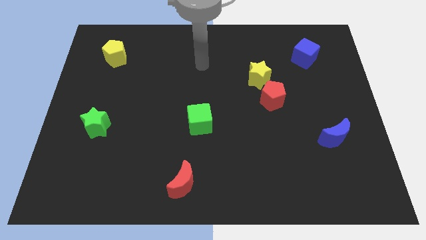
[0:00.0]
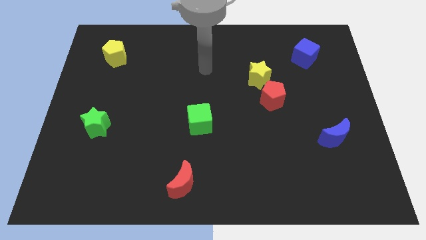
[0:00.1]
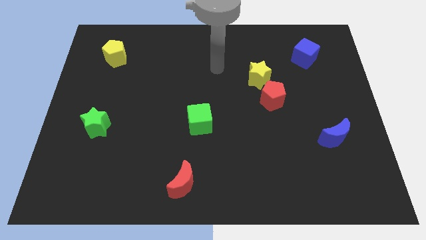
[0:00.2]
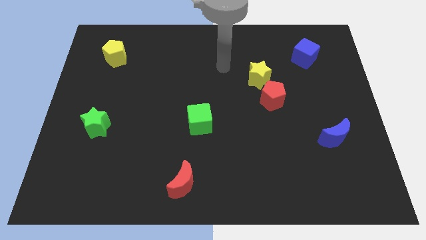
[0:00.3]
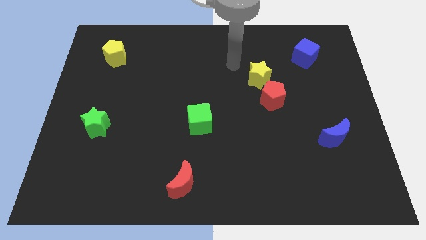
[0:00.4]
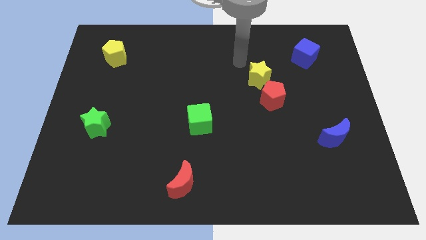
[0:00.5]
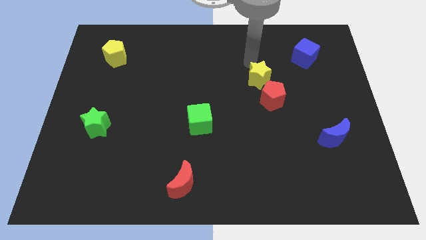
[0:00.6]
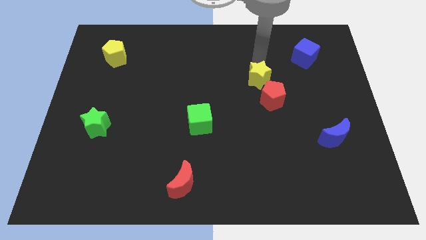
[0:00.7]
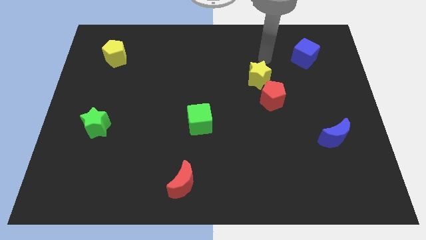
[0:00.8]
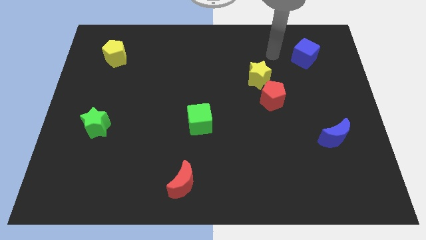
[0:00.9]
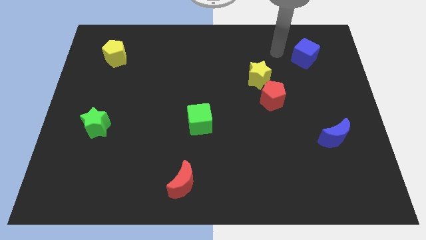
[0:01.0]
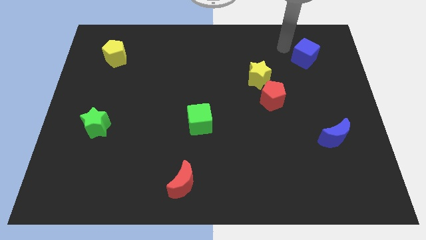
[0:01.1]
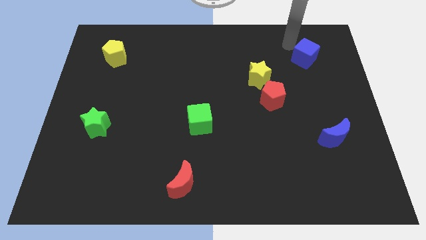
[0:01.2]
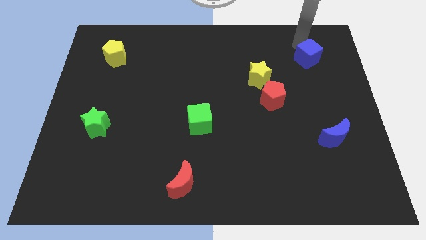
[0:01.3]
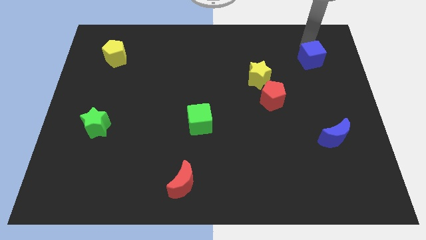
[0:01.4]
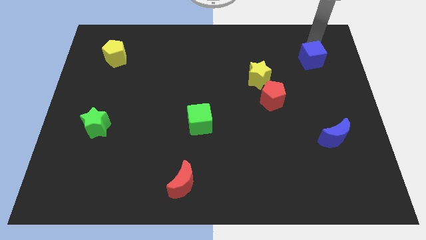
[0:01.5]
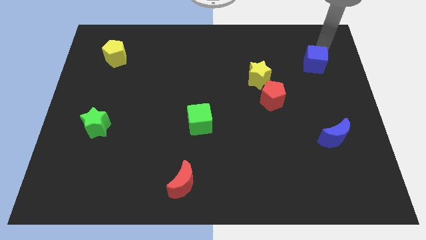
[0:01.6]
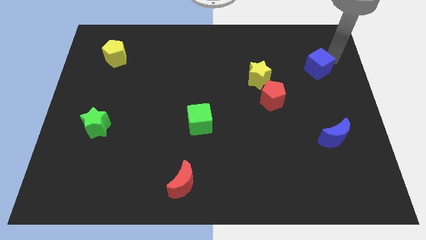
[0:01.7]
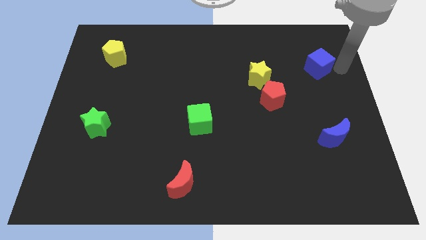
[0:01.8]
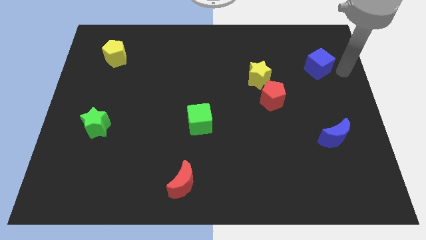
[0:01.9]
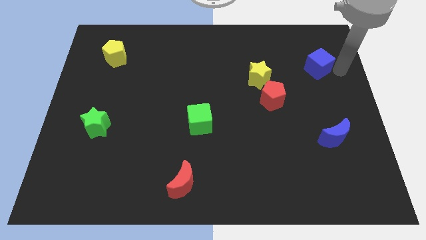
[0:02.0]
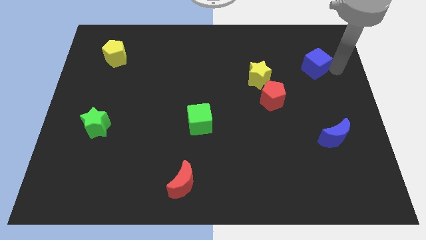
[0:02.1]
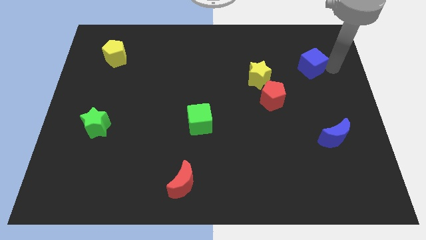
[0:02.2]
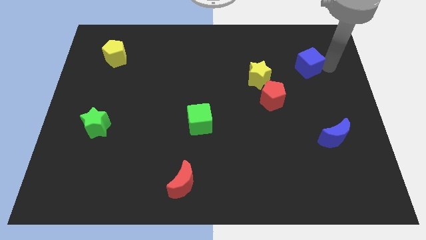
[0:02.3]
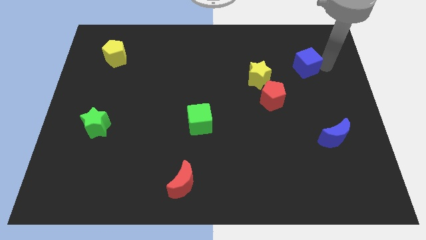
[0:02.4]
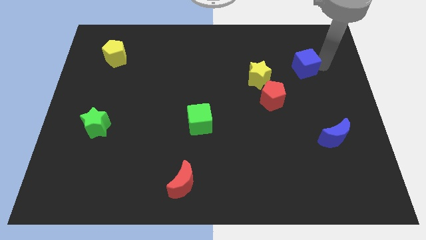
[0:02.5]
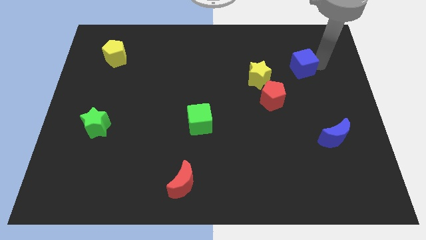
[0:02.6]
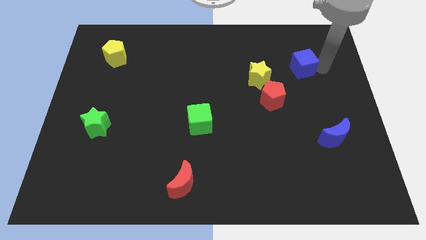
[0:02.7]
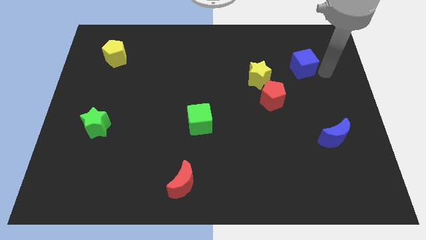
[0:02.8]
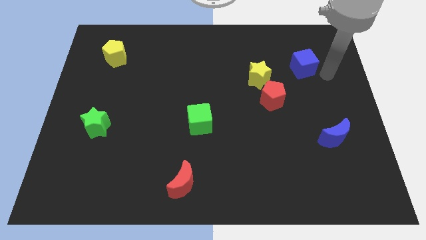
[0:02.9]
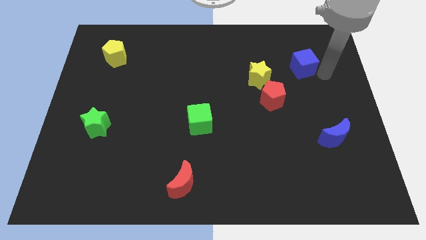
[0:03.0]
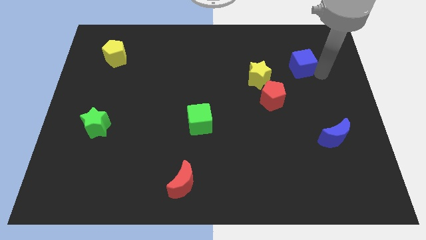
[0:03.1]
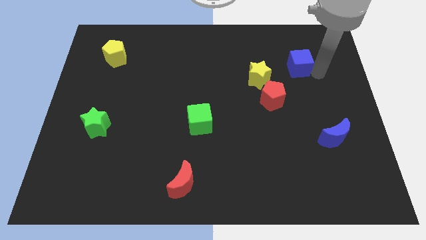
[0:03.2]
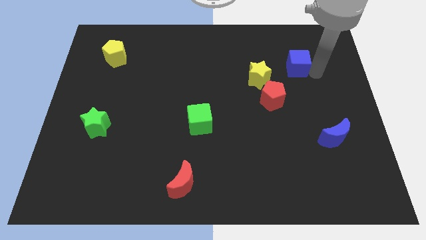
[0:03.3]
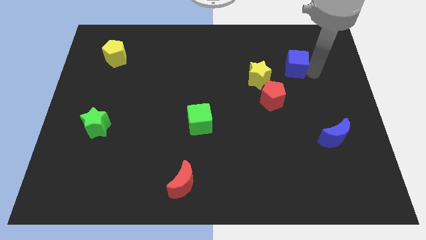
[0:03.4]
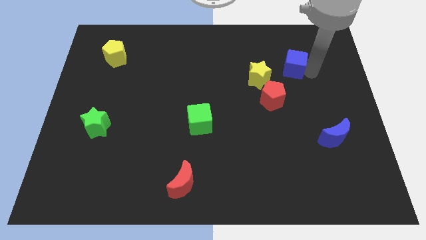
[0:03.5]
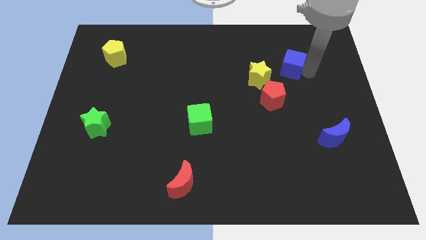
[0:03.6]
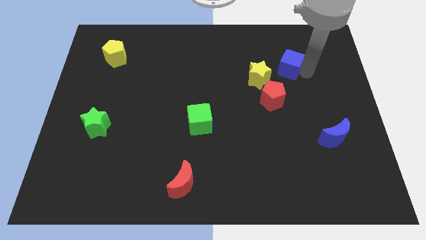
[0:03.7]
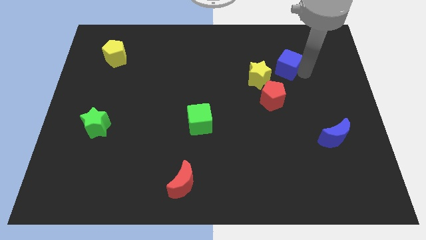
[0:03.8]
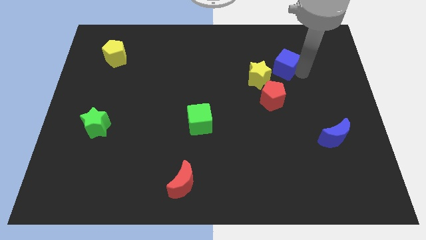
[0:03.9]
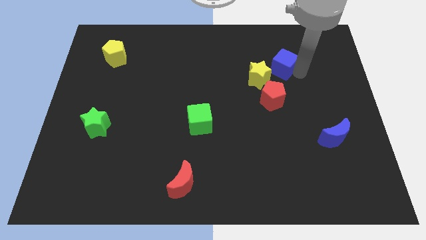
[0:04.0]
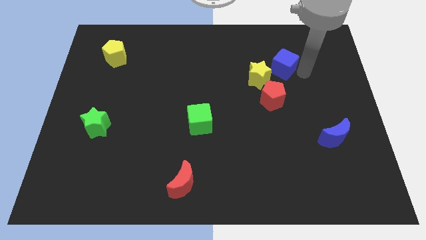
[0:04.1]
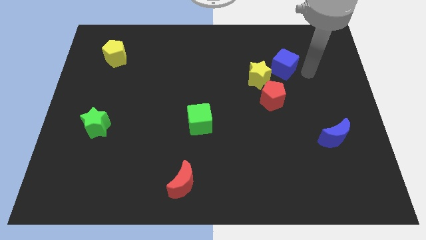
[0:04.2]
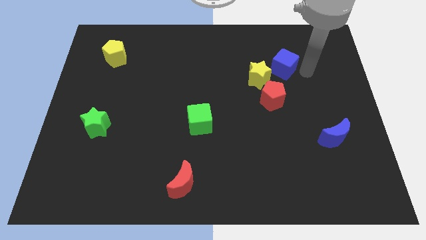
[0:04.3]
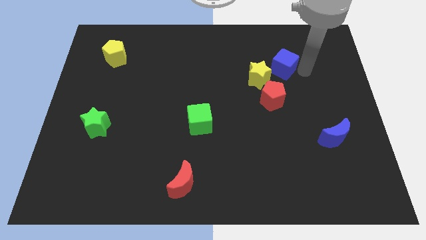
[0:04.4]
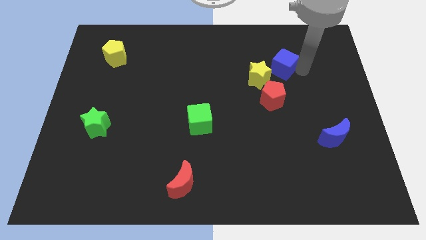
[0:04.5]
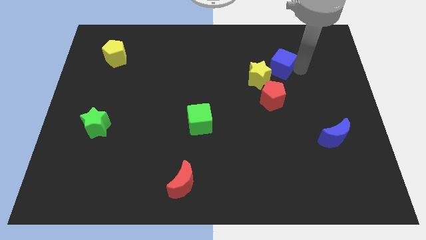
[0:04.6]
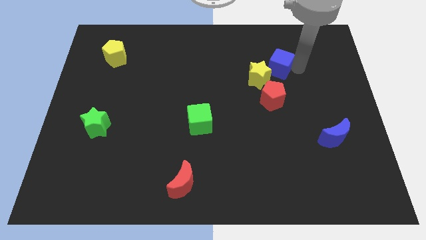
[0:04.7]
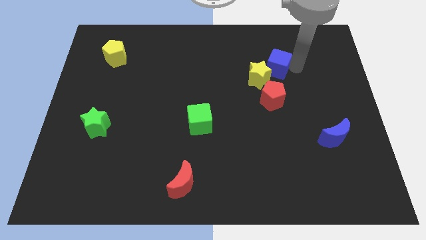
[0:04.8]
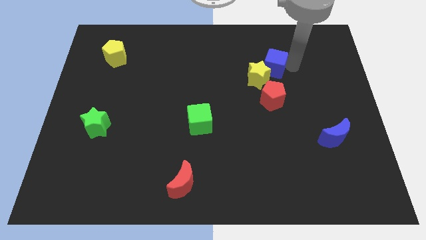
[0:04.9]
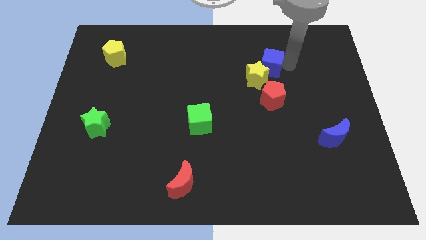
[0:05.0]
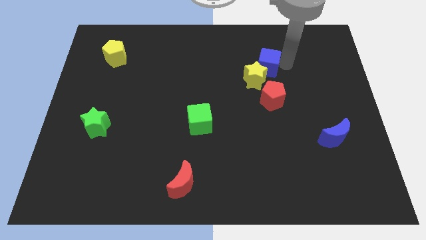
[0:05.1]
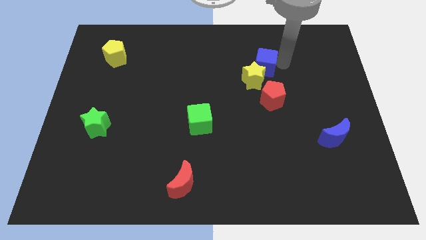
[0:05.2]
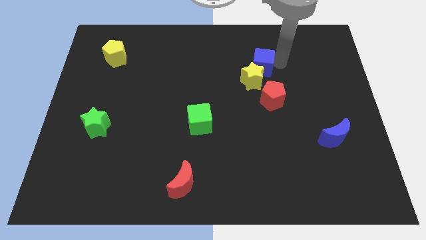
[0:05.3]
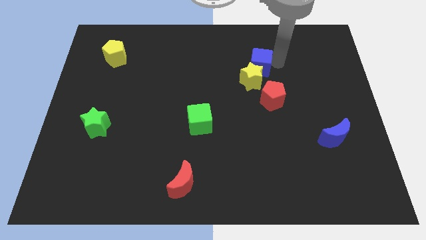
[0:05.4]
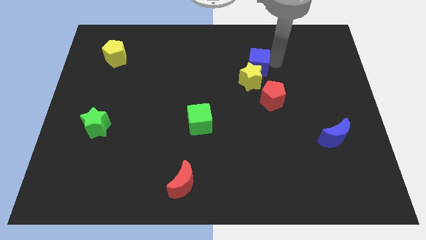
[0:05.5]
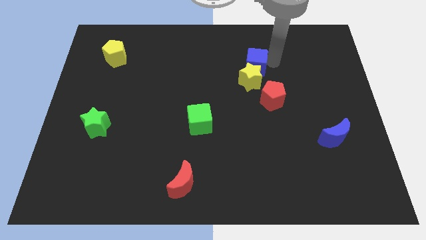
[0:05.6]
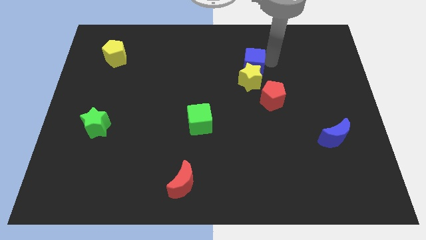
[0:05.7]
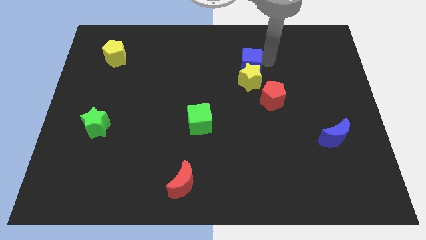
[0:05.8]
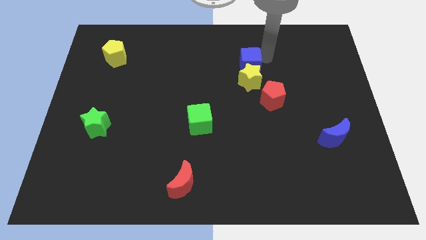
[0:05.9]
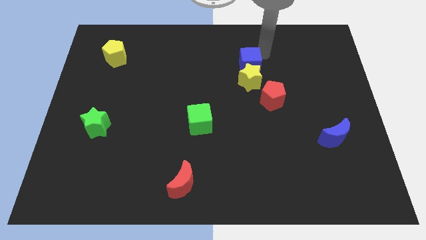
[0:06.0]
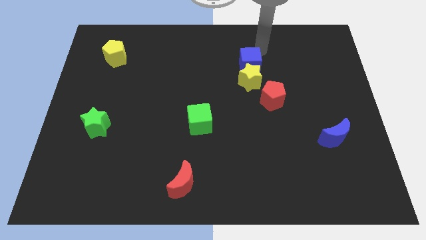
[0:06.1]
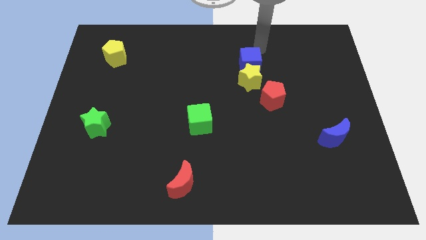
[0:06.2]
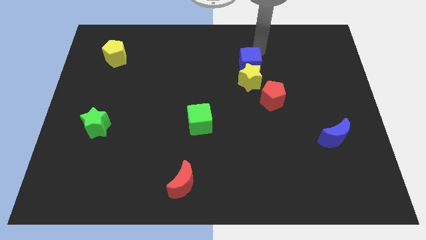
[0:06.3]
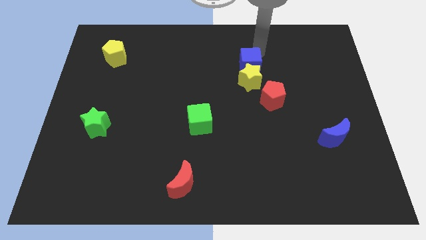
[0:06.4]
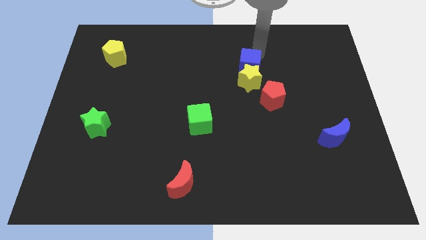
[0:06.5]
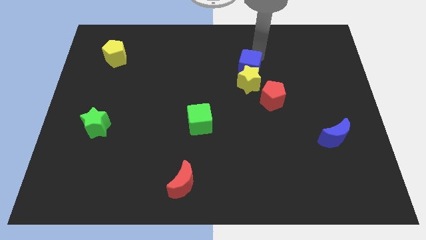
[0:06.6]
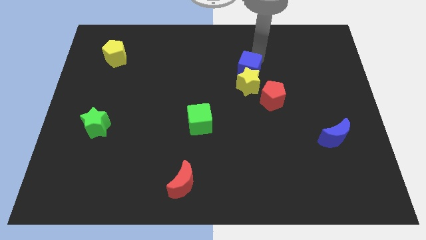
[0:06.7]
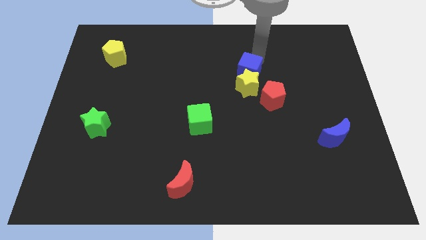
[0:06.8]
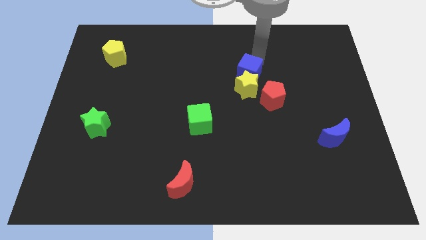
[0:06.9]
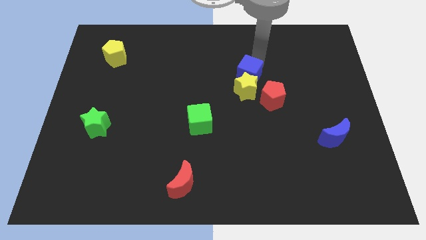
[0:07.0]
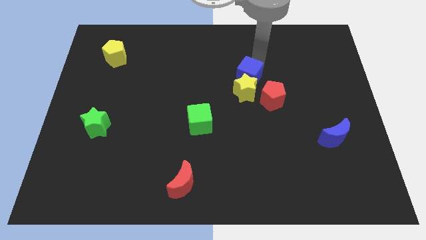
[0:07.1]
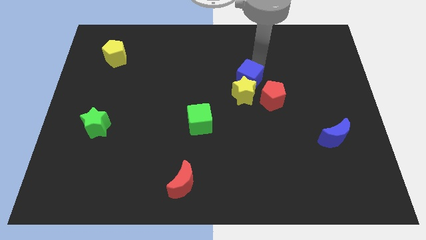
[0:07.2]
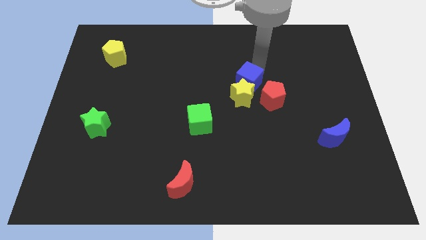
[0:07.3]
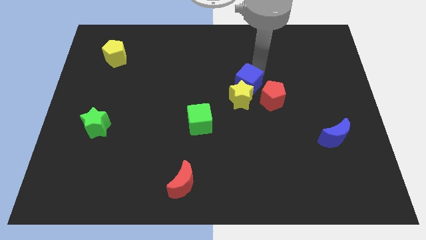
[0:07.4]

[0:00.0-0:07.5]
push the blue cube just left of the red pentagon
